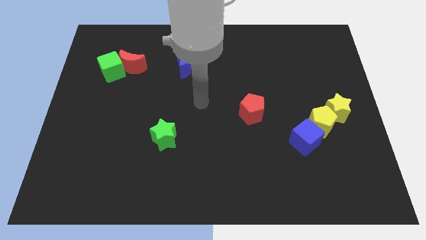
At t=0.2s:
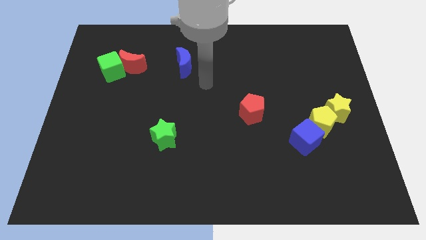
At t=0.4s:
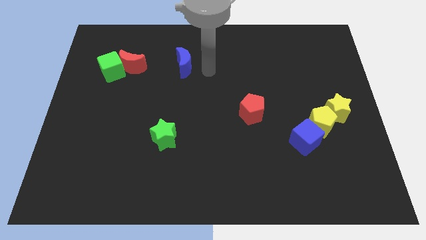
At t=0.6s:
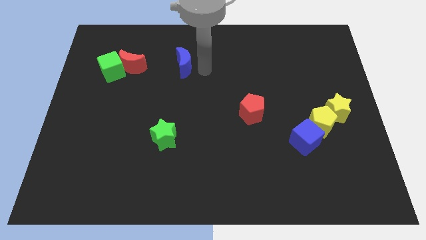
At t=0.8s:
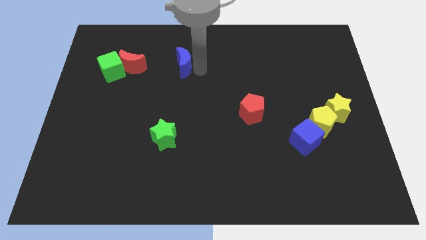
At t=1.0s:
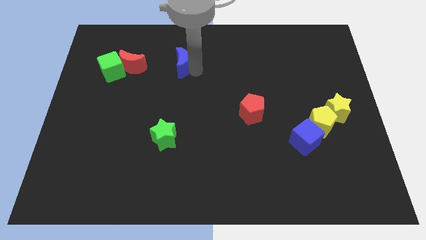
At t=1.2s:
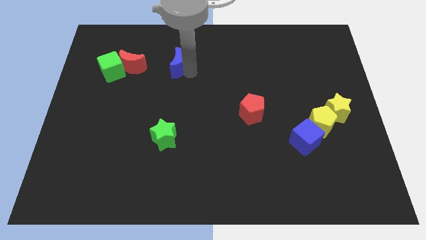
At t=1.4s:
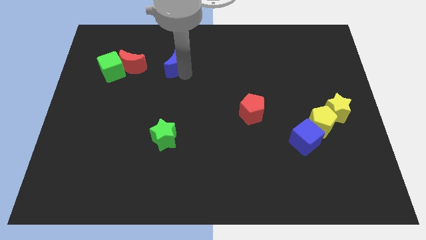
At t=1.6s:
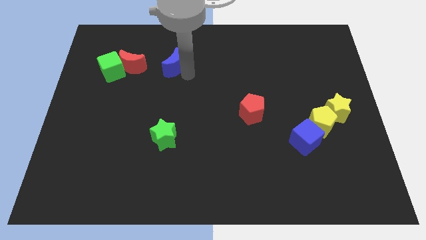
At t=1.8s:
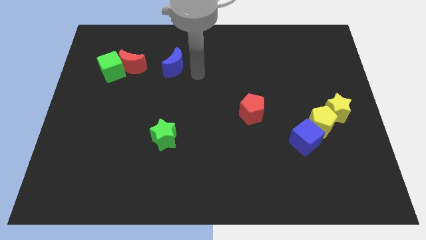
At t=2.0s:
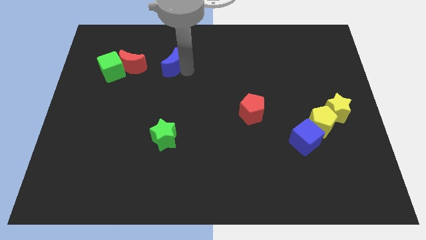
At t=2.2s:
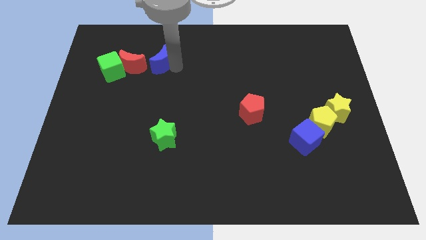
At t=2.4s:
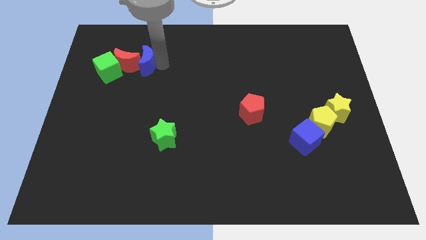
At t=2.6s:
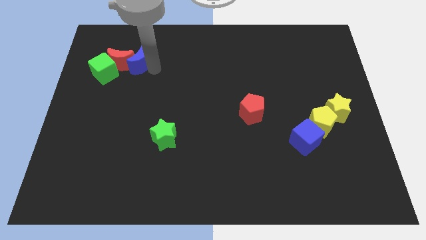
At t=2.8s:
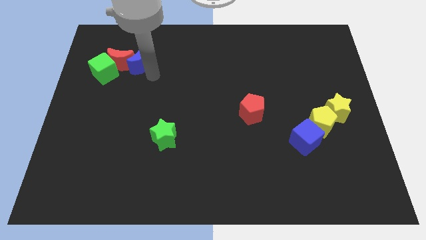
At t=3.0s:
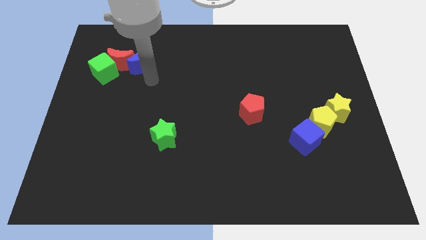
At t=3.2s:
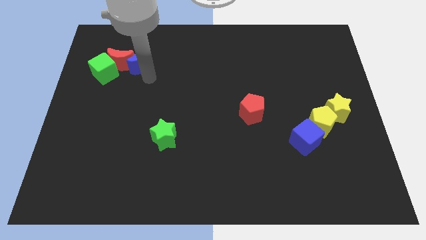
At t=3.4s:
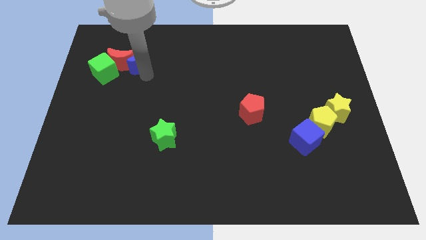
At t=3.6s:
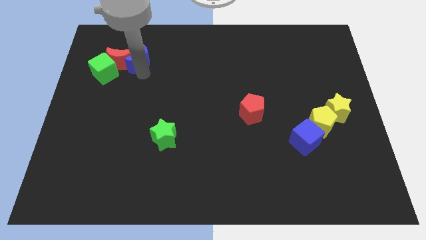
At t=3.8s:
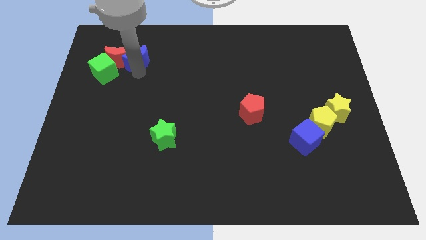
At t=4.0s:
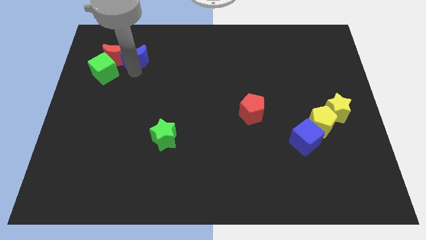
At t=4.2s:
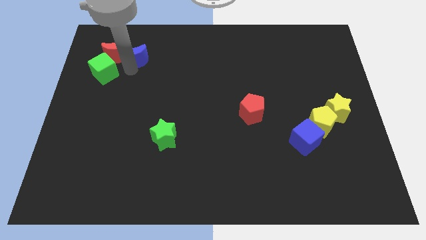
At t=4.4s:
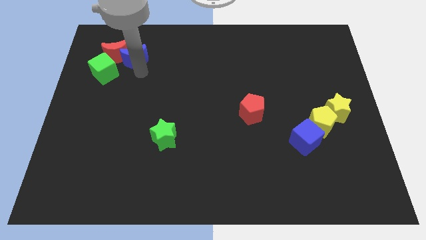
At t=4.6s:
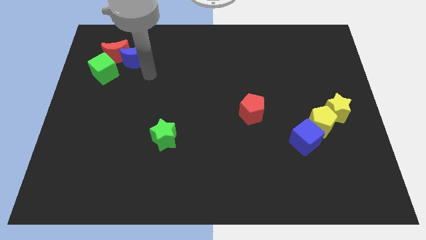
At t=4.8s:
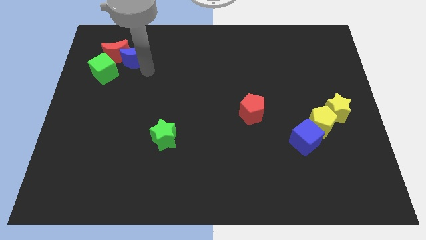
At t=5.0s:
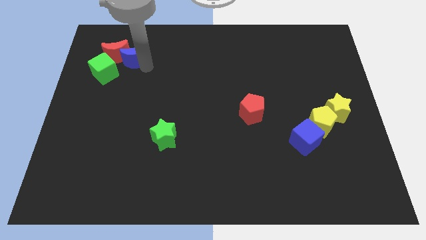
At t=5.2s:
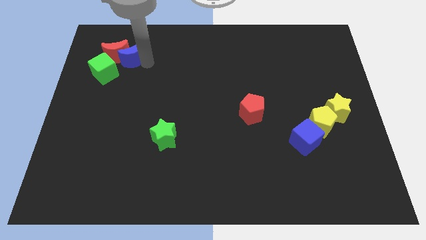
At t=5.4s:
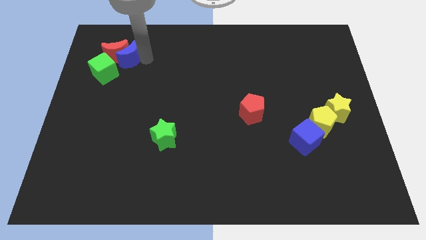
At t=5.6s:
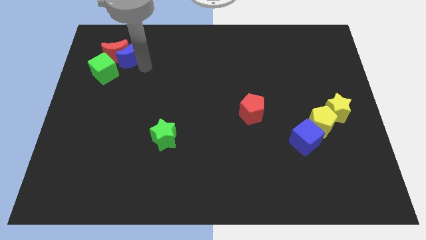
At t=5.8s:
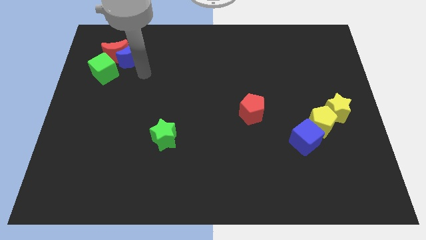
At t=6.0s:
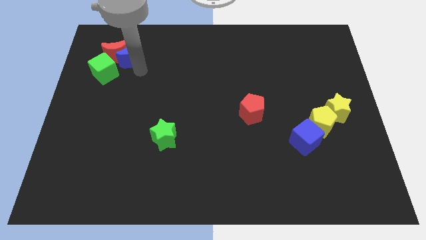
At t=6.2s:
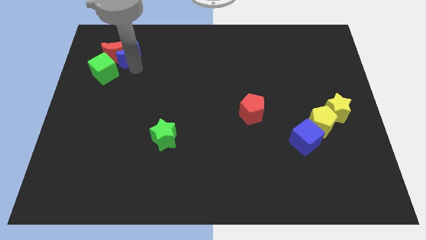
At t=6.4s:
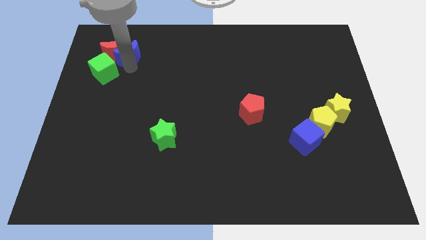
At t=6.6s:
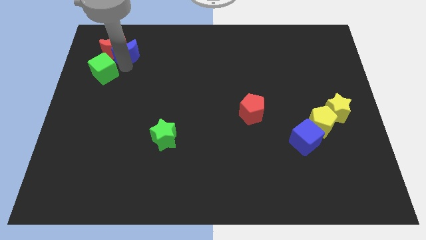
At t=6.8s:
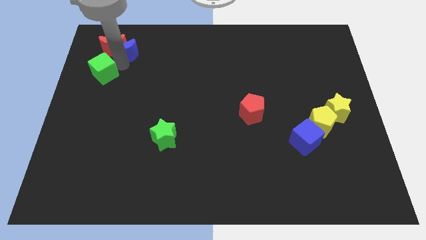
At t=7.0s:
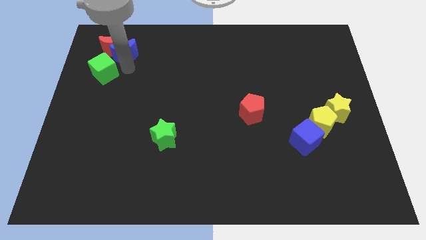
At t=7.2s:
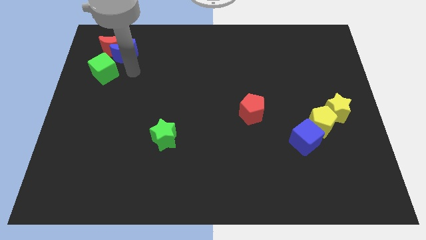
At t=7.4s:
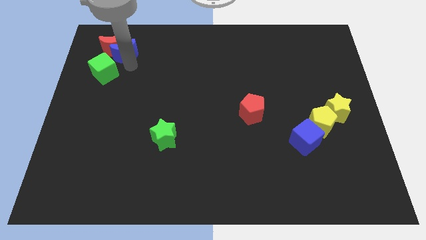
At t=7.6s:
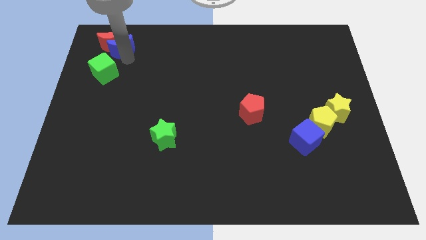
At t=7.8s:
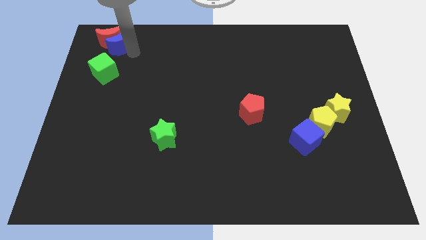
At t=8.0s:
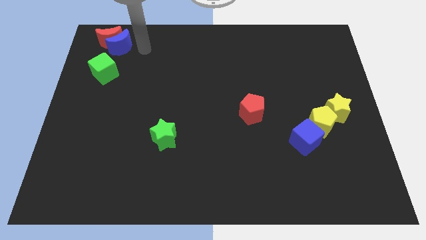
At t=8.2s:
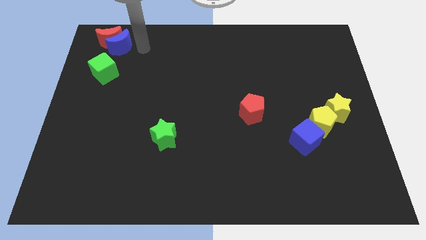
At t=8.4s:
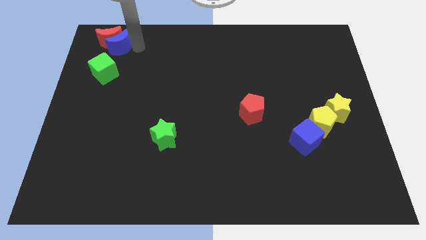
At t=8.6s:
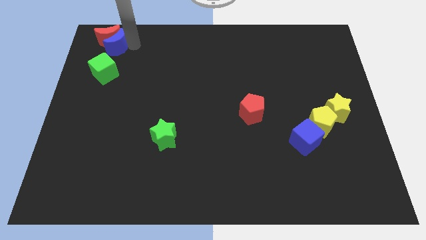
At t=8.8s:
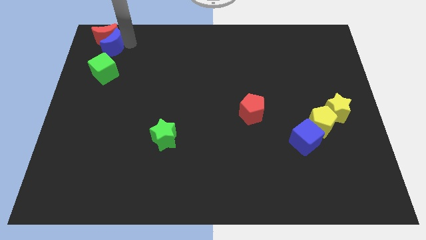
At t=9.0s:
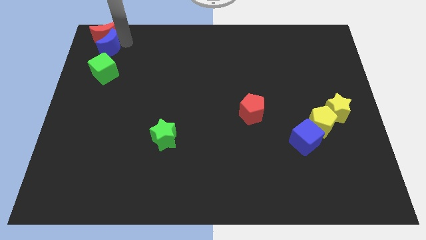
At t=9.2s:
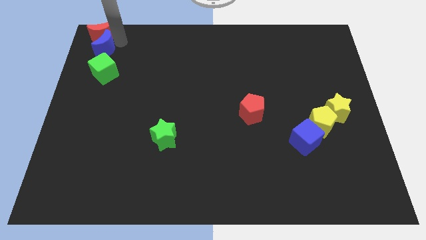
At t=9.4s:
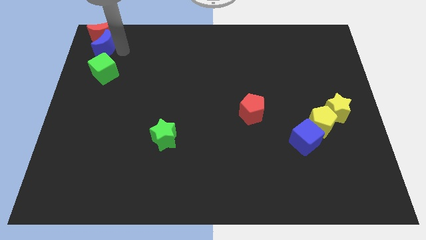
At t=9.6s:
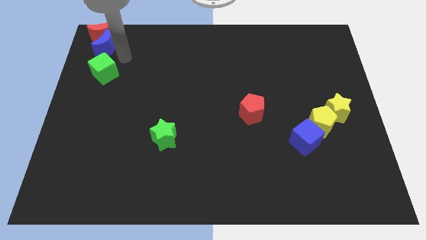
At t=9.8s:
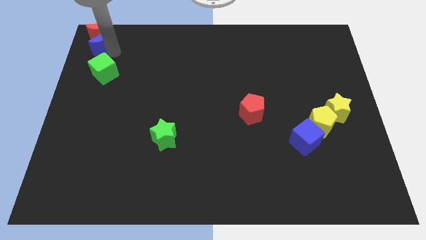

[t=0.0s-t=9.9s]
slide the blue moon to the top left
